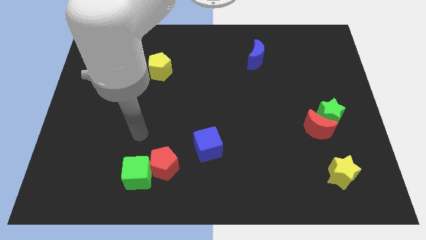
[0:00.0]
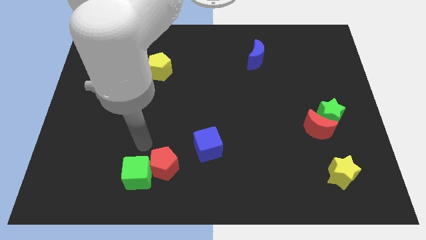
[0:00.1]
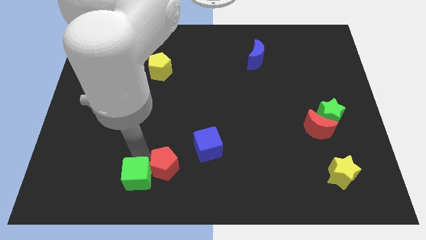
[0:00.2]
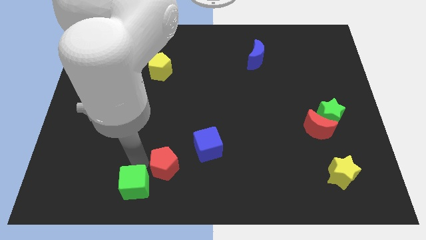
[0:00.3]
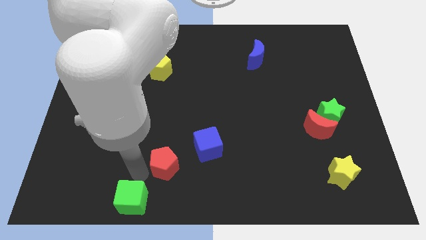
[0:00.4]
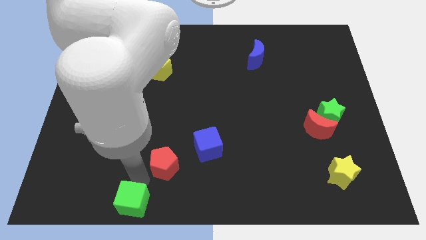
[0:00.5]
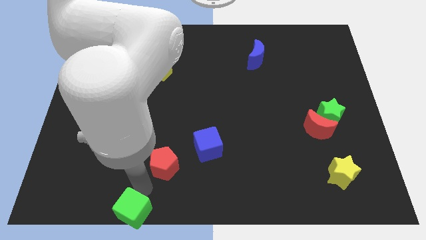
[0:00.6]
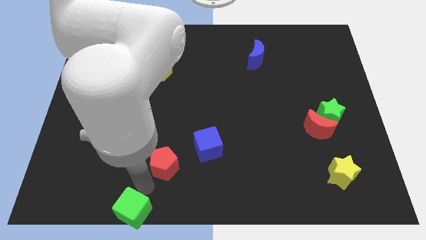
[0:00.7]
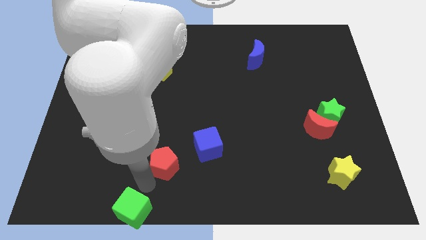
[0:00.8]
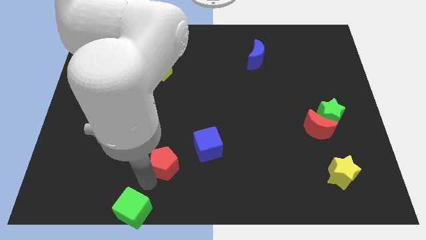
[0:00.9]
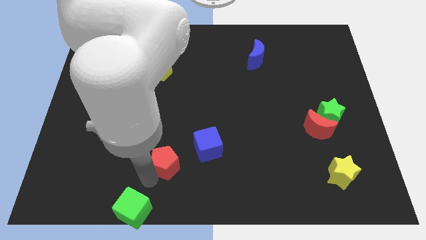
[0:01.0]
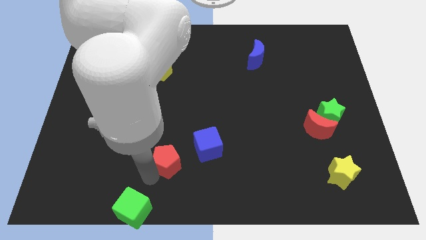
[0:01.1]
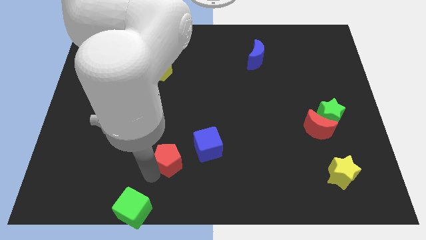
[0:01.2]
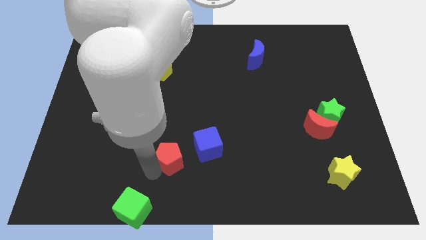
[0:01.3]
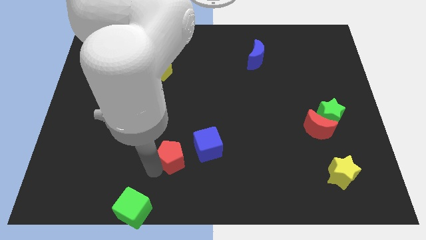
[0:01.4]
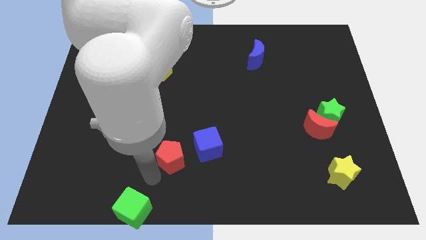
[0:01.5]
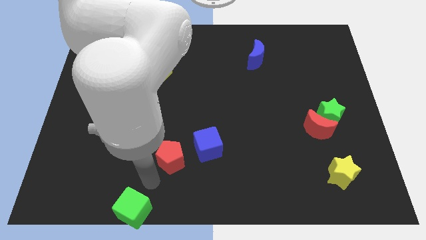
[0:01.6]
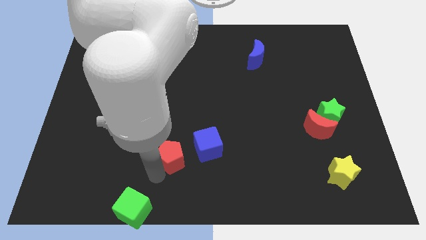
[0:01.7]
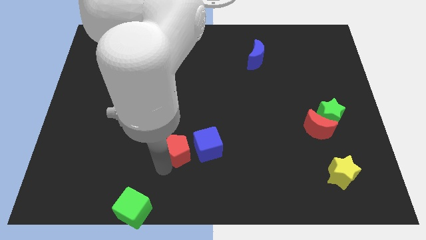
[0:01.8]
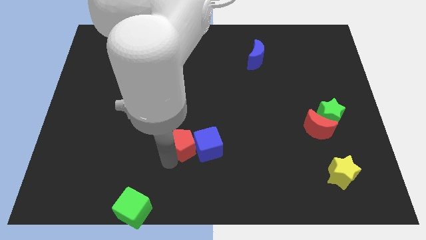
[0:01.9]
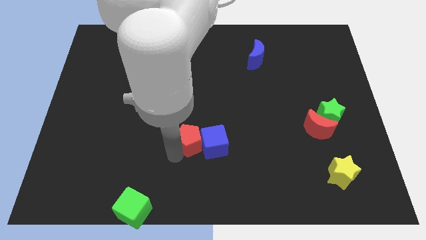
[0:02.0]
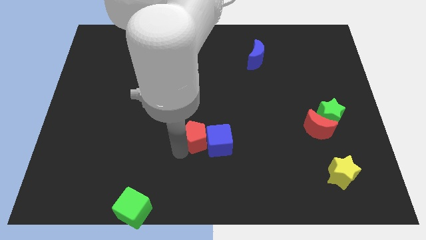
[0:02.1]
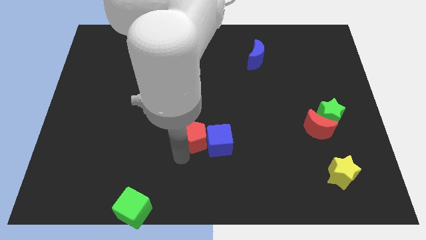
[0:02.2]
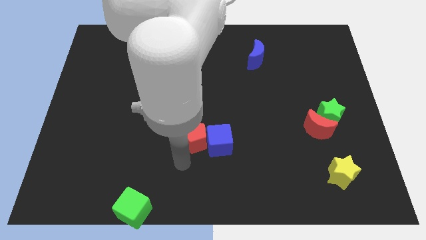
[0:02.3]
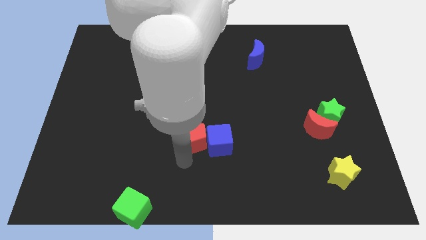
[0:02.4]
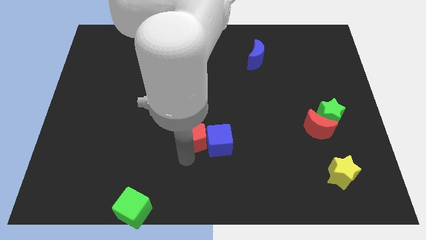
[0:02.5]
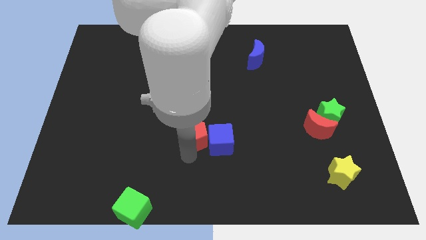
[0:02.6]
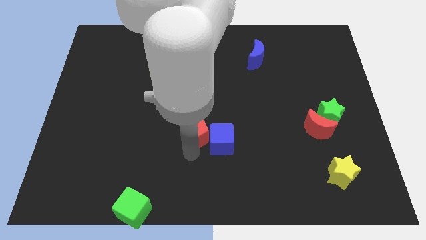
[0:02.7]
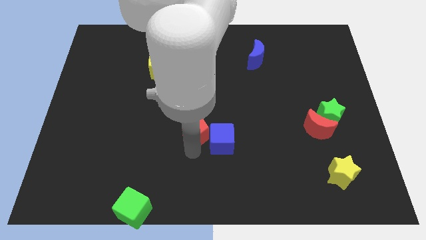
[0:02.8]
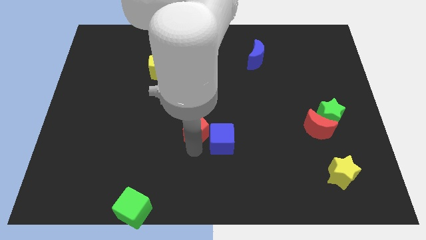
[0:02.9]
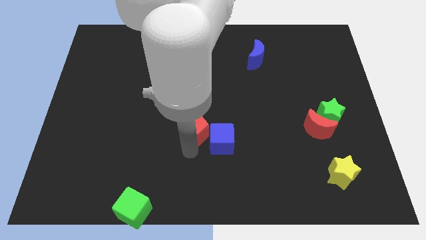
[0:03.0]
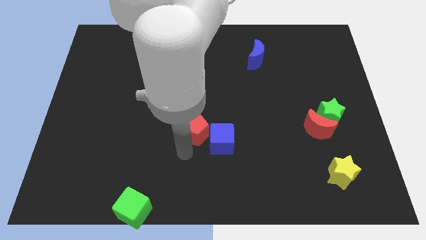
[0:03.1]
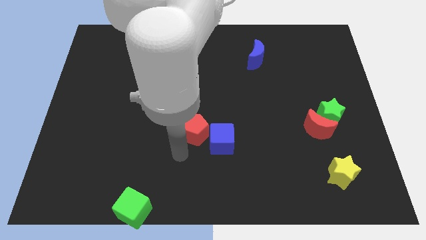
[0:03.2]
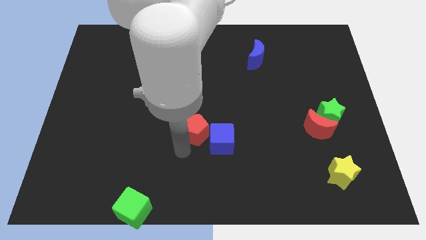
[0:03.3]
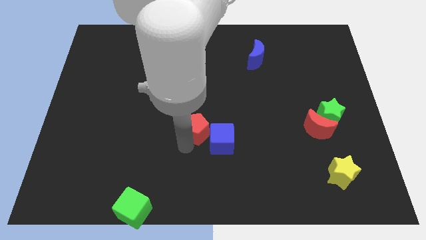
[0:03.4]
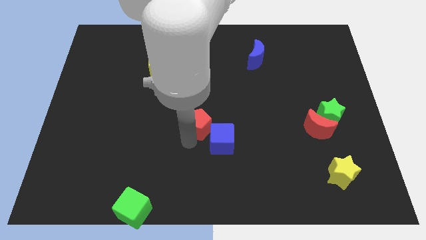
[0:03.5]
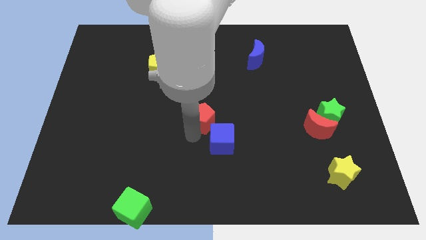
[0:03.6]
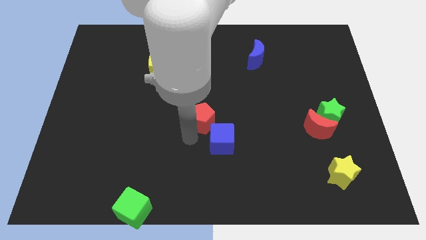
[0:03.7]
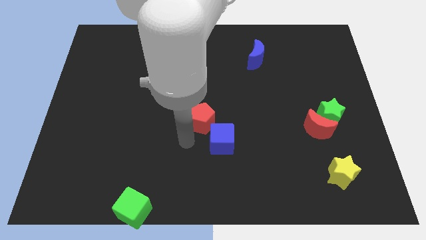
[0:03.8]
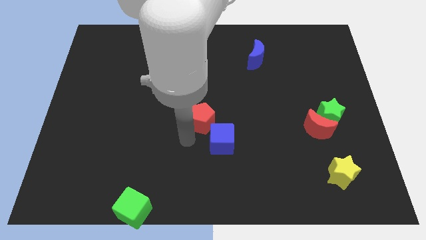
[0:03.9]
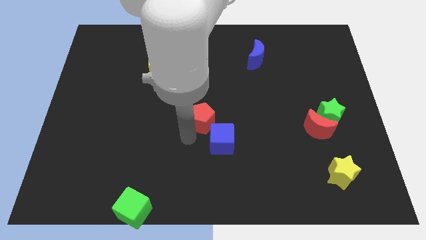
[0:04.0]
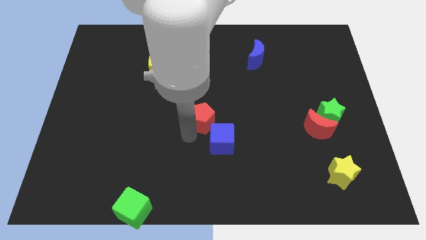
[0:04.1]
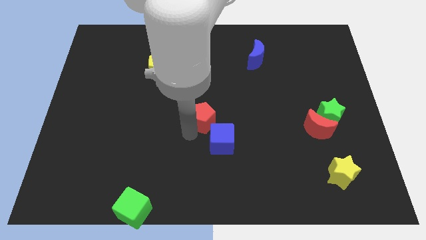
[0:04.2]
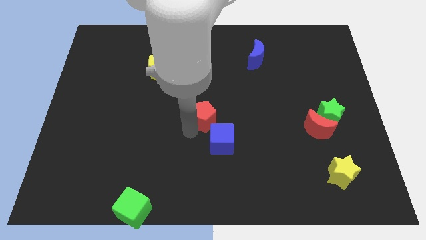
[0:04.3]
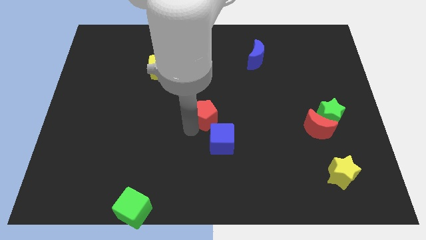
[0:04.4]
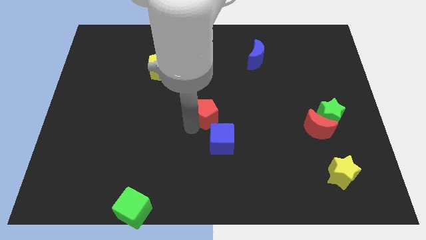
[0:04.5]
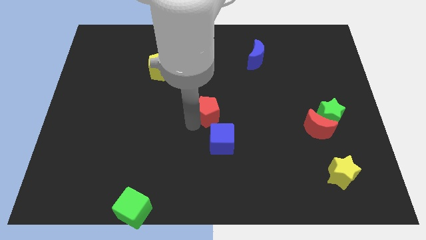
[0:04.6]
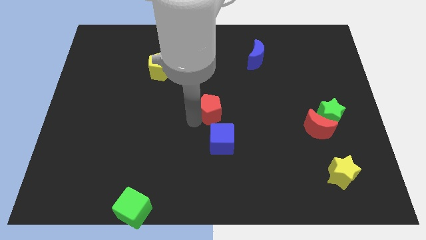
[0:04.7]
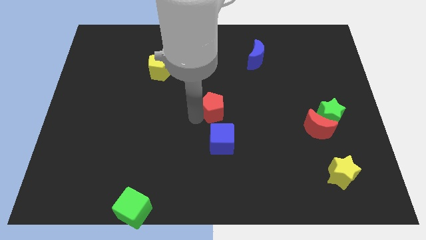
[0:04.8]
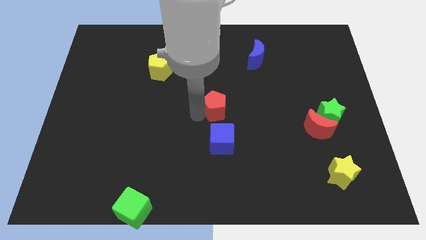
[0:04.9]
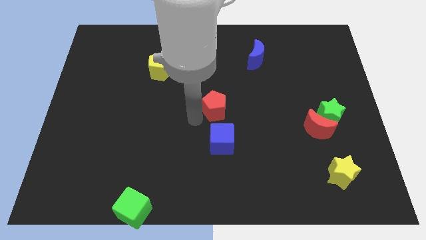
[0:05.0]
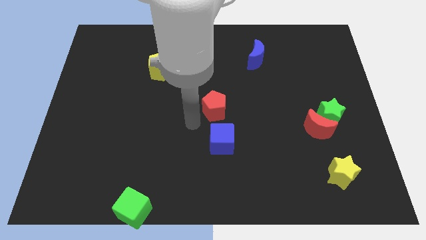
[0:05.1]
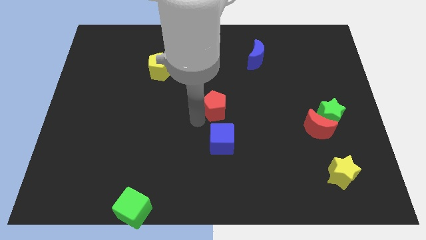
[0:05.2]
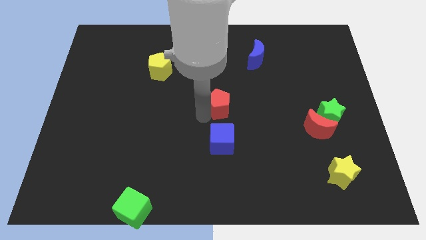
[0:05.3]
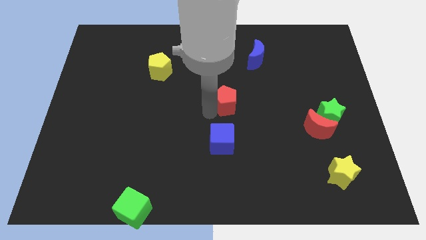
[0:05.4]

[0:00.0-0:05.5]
push the red pentagon upwards and to the right

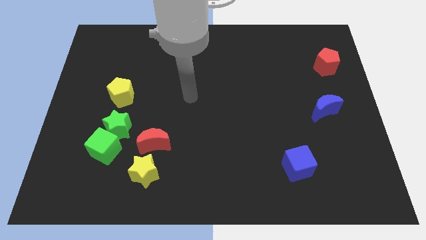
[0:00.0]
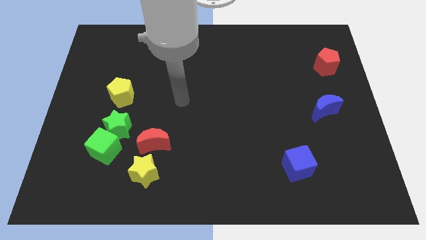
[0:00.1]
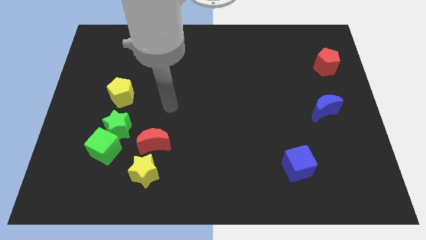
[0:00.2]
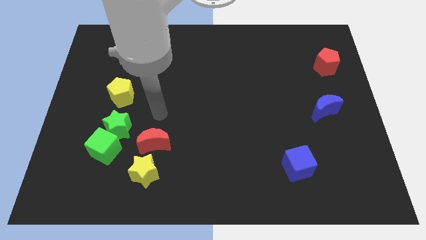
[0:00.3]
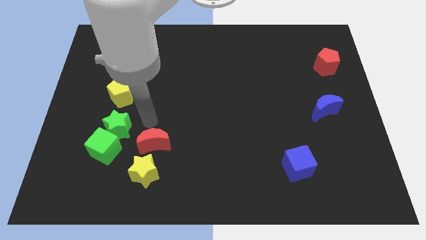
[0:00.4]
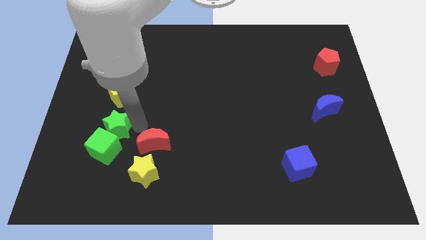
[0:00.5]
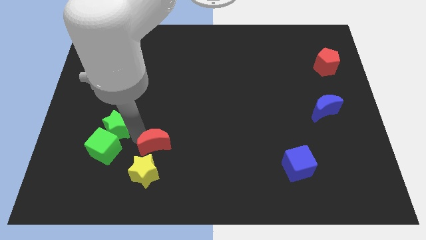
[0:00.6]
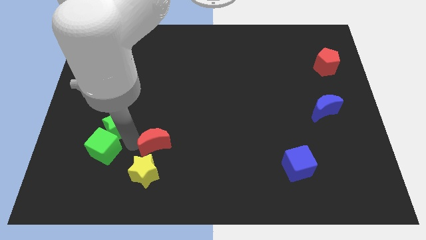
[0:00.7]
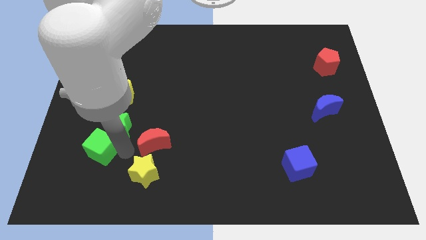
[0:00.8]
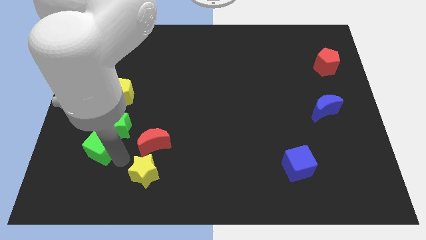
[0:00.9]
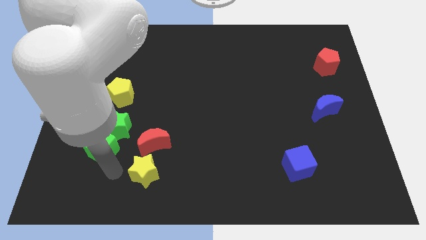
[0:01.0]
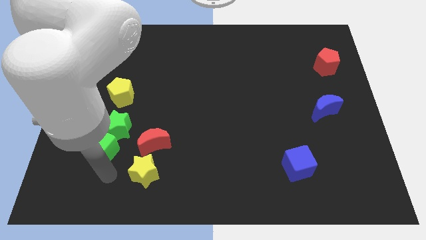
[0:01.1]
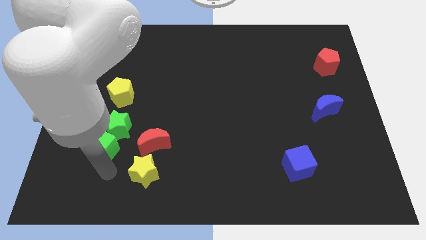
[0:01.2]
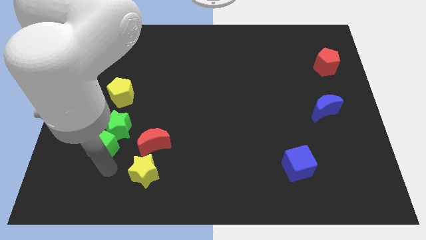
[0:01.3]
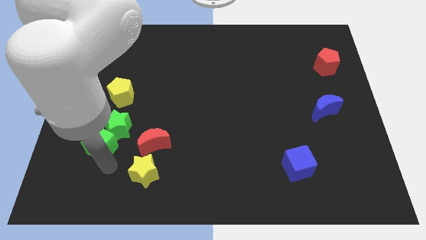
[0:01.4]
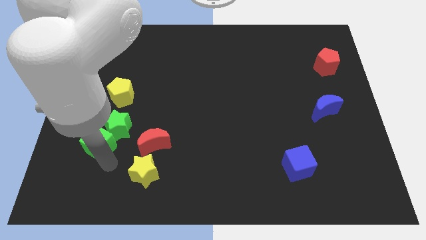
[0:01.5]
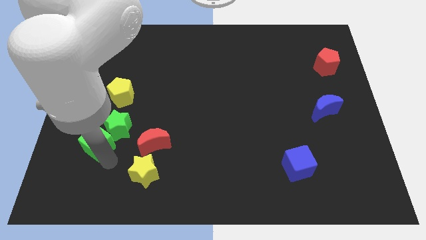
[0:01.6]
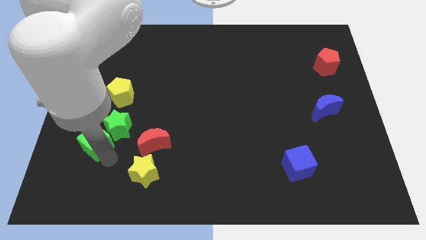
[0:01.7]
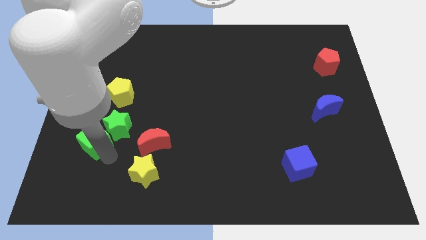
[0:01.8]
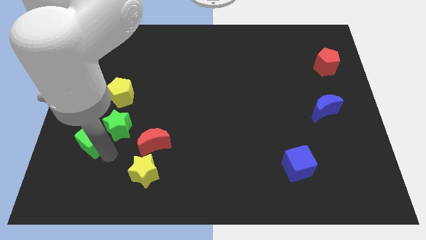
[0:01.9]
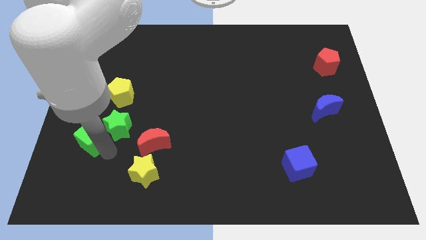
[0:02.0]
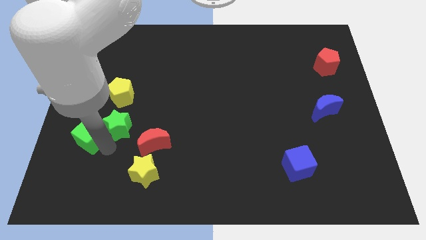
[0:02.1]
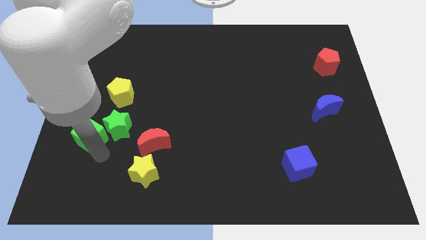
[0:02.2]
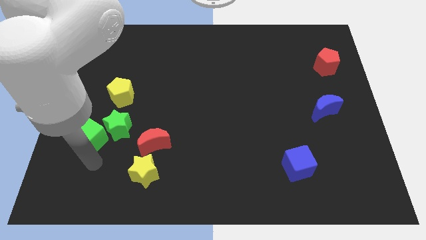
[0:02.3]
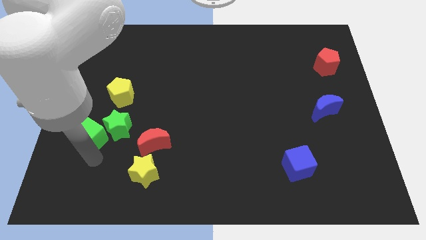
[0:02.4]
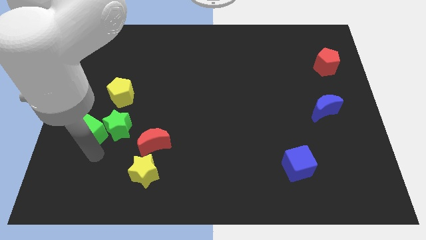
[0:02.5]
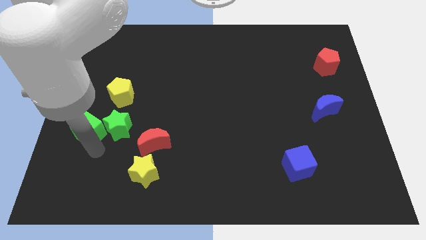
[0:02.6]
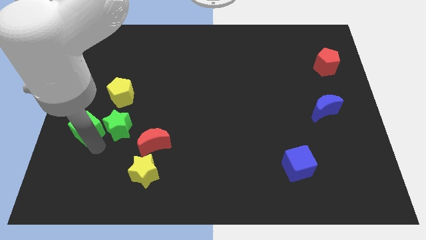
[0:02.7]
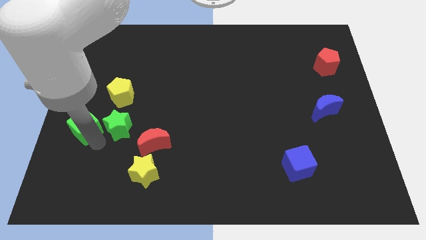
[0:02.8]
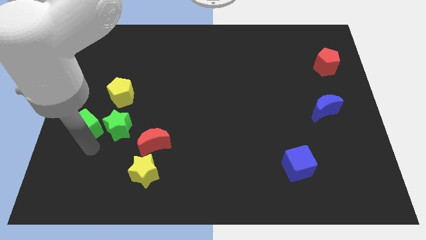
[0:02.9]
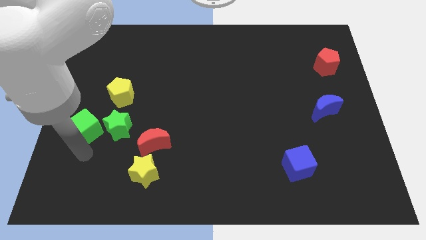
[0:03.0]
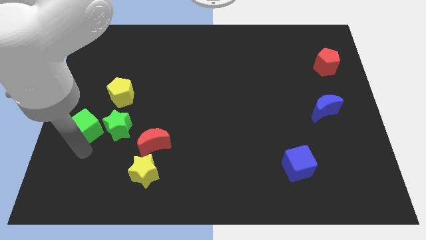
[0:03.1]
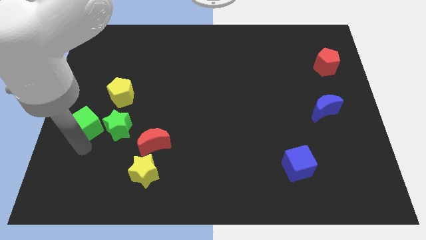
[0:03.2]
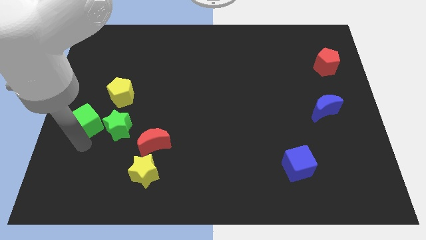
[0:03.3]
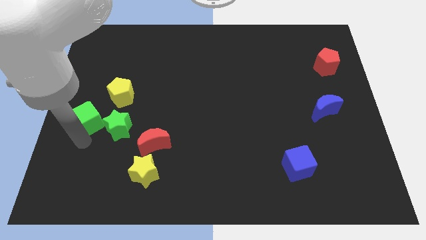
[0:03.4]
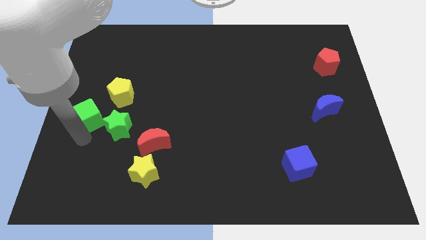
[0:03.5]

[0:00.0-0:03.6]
slightly slide the green cube up
